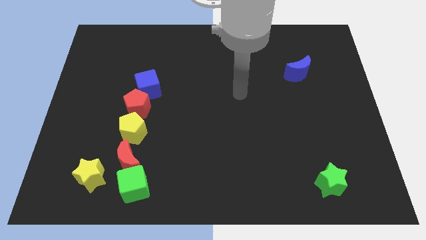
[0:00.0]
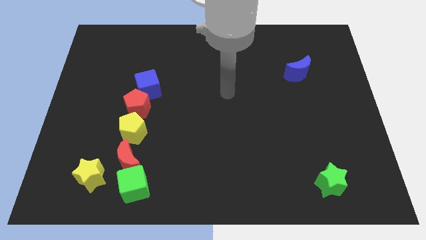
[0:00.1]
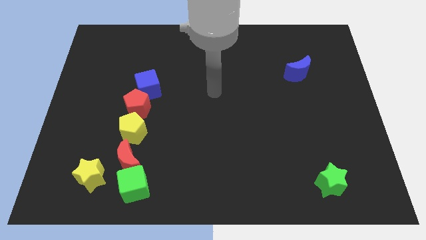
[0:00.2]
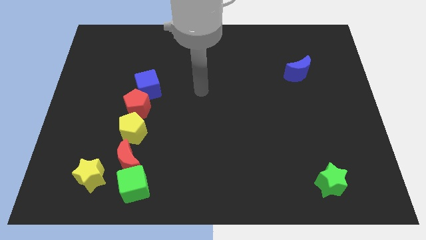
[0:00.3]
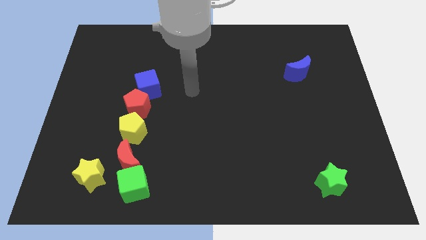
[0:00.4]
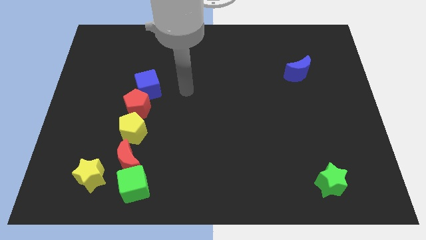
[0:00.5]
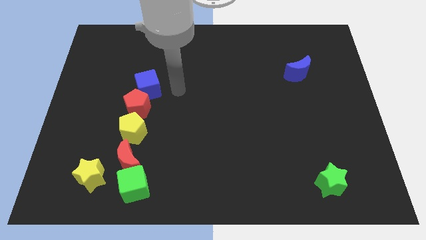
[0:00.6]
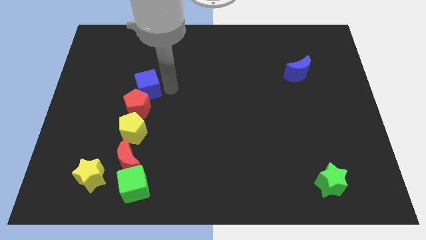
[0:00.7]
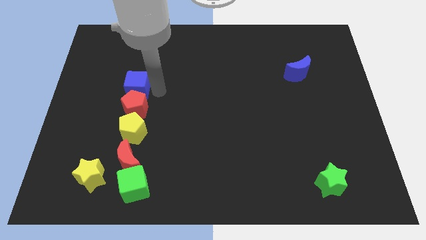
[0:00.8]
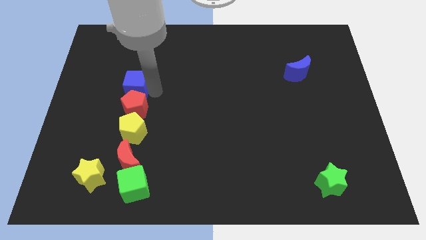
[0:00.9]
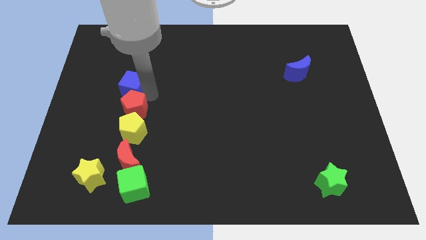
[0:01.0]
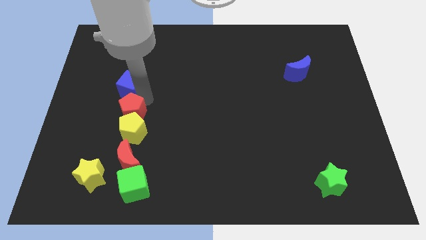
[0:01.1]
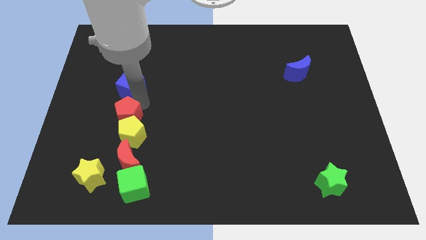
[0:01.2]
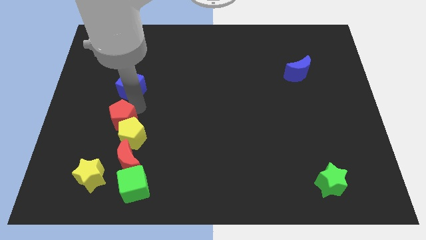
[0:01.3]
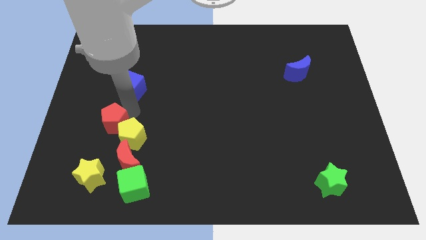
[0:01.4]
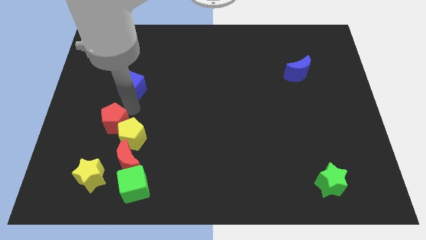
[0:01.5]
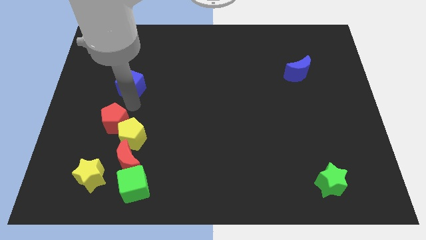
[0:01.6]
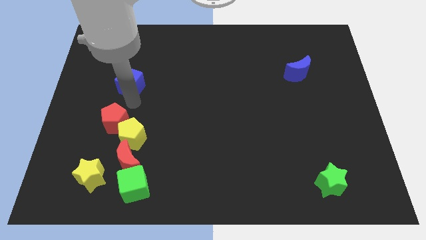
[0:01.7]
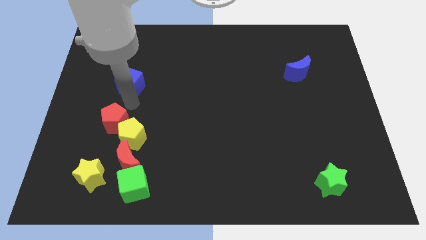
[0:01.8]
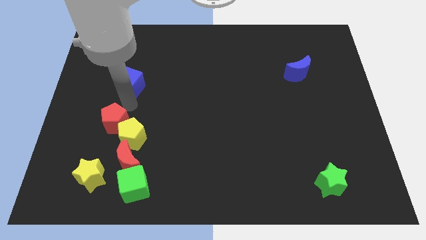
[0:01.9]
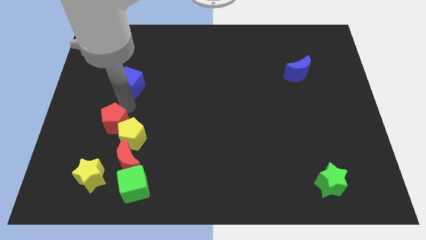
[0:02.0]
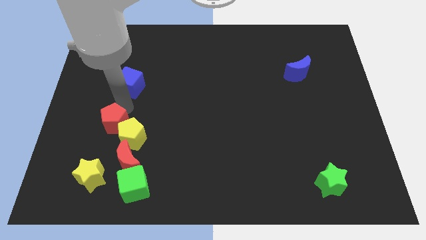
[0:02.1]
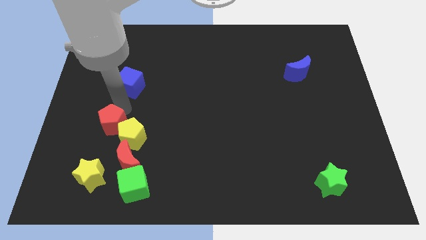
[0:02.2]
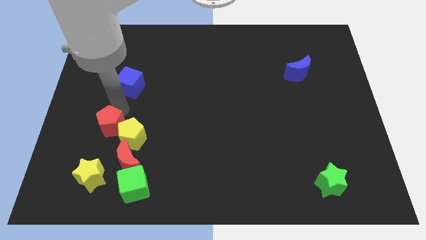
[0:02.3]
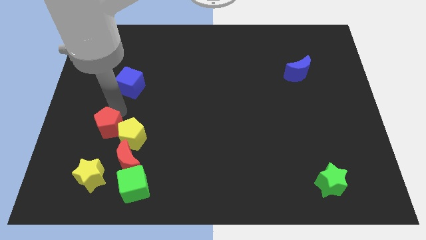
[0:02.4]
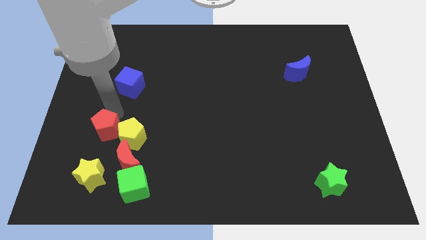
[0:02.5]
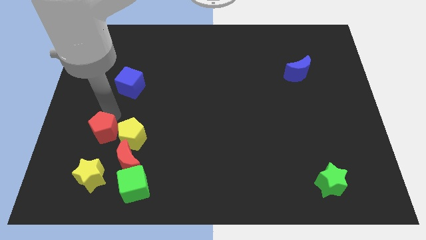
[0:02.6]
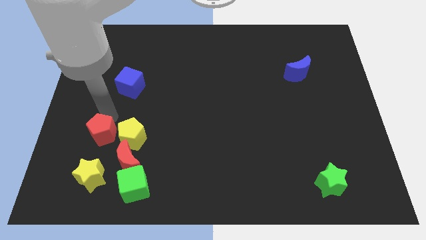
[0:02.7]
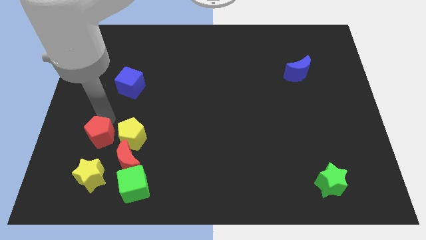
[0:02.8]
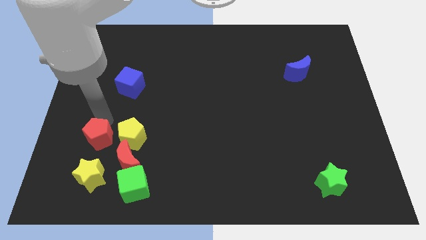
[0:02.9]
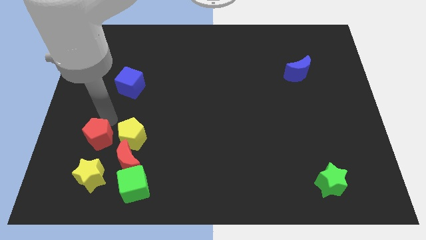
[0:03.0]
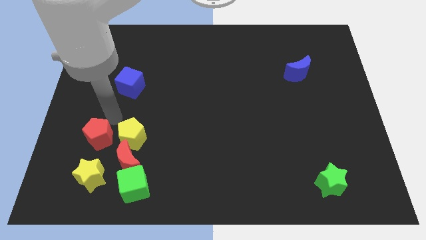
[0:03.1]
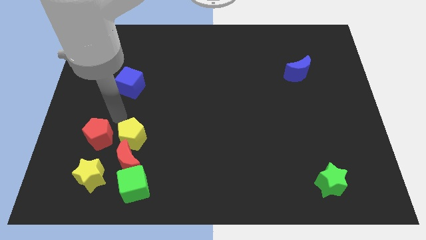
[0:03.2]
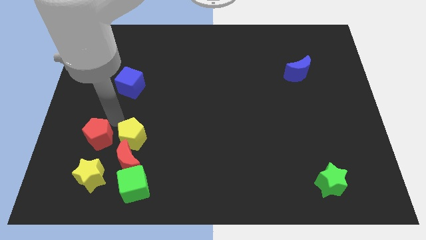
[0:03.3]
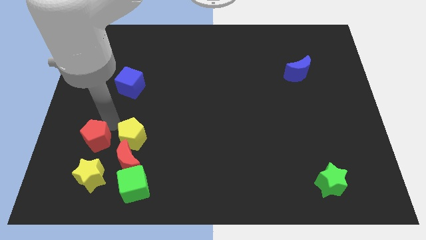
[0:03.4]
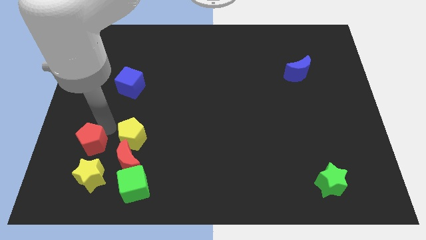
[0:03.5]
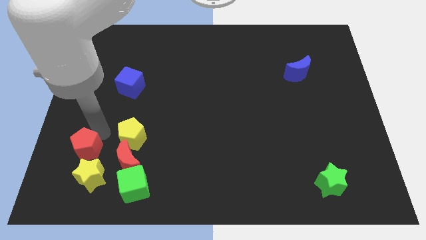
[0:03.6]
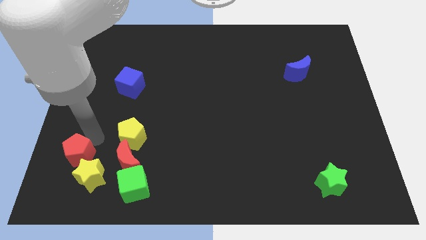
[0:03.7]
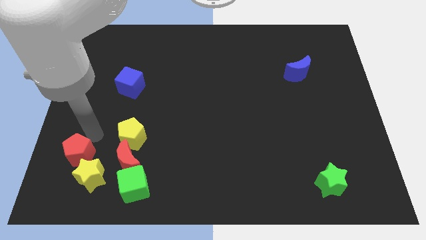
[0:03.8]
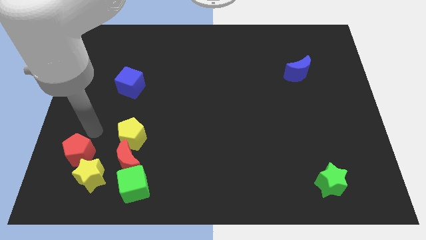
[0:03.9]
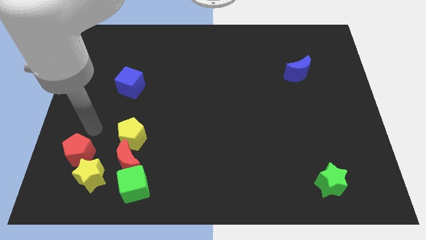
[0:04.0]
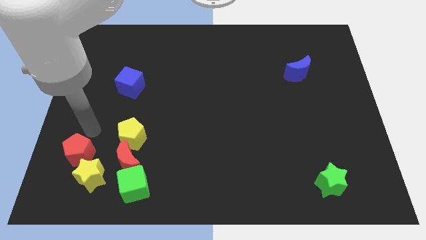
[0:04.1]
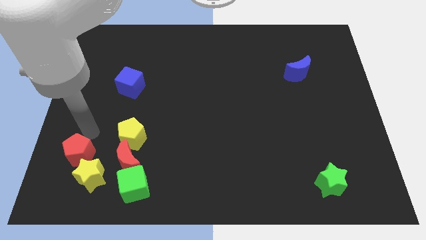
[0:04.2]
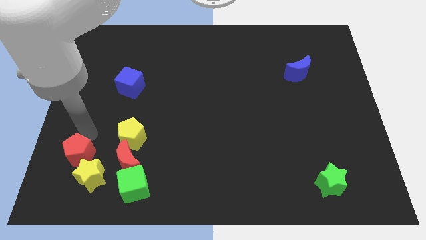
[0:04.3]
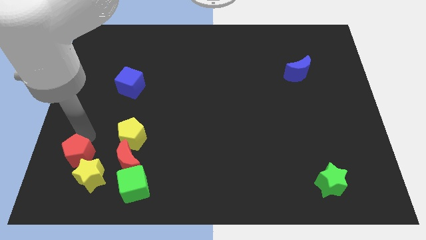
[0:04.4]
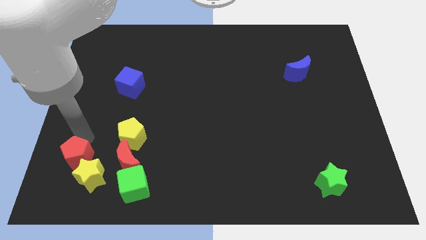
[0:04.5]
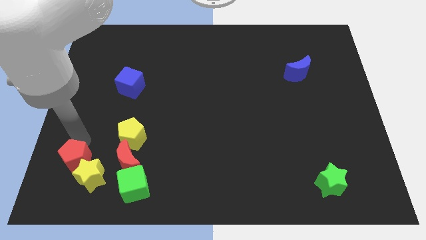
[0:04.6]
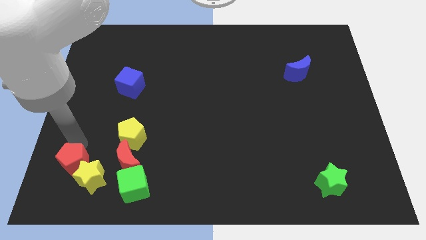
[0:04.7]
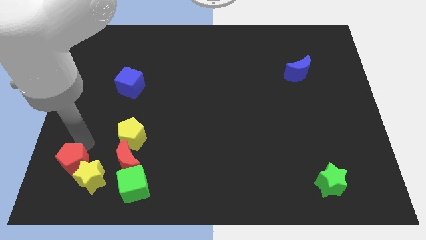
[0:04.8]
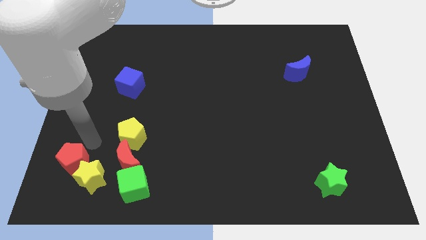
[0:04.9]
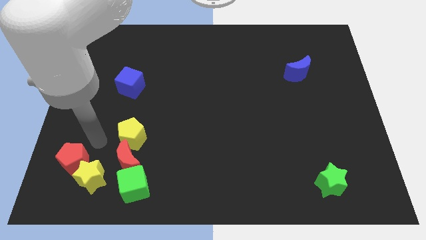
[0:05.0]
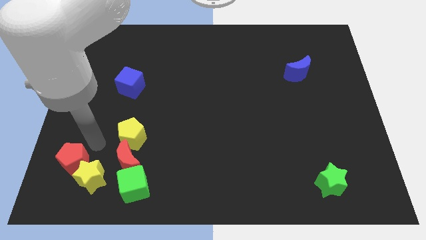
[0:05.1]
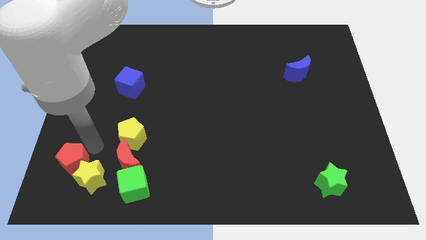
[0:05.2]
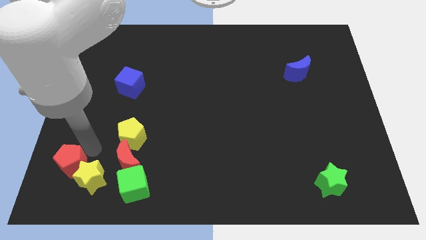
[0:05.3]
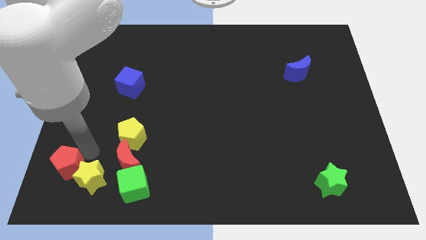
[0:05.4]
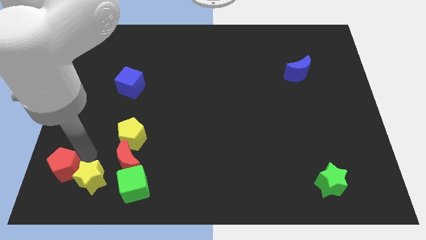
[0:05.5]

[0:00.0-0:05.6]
slide the red pentagon to the lower left corner

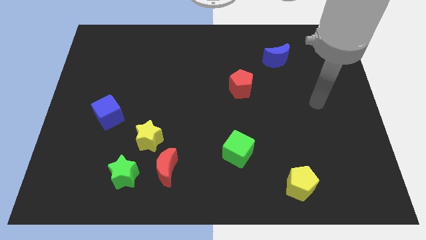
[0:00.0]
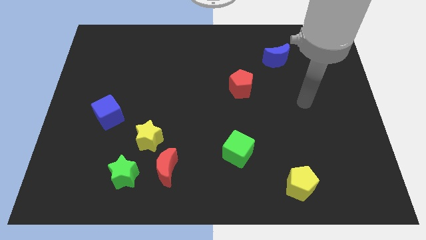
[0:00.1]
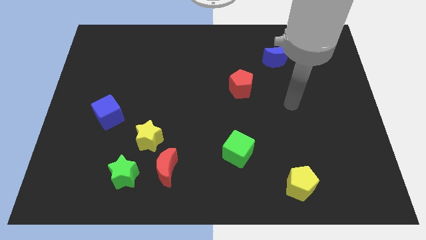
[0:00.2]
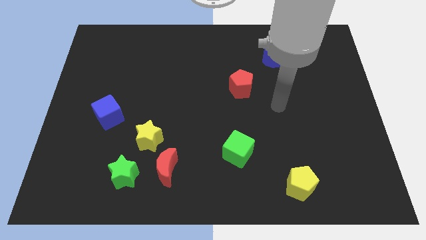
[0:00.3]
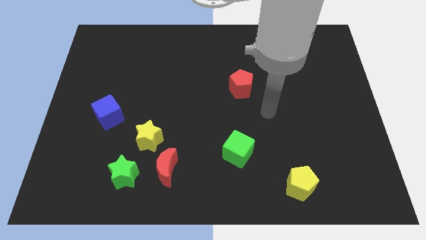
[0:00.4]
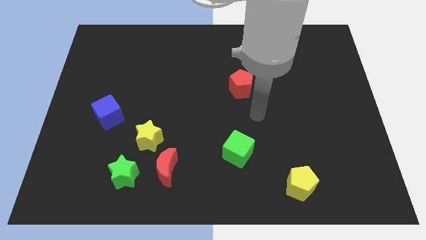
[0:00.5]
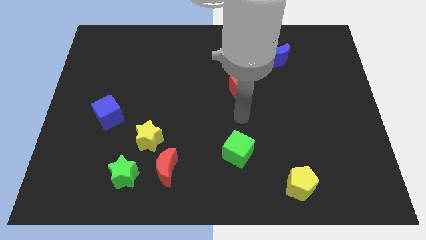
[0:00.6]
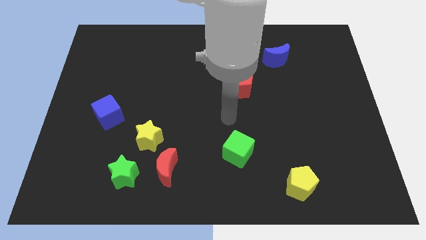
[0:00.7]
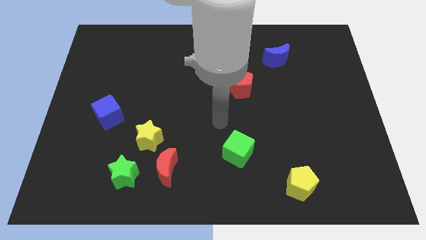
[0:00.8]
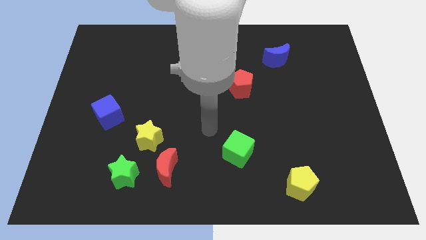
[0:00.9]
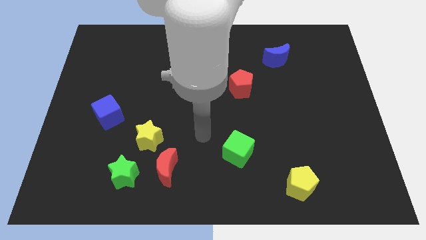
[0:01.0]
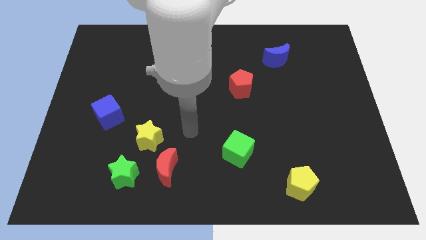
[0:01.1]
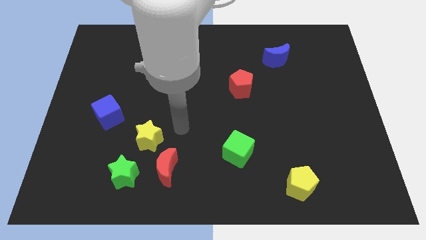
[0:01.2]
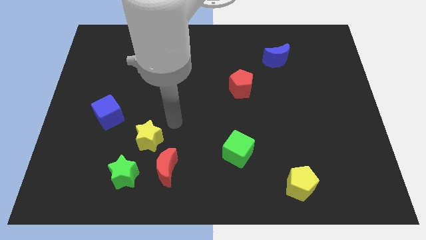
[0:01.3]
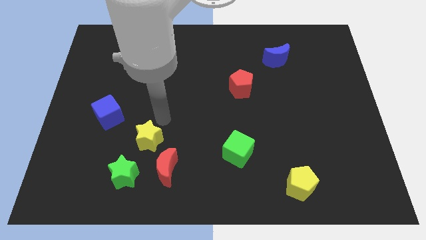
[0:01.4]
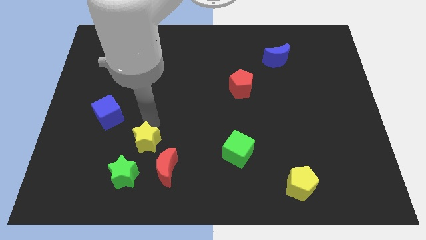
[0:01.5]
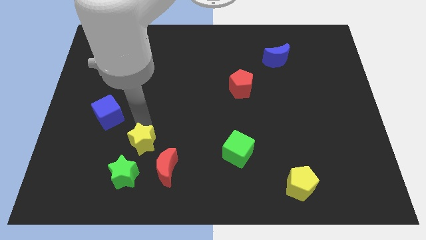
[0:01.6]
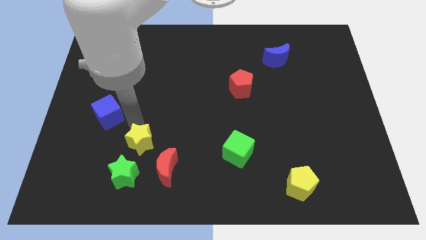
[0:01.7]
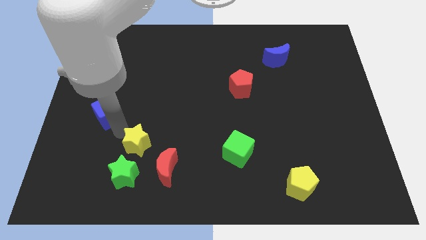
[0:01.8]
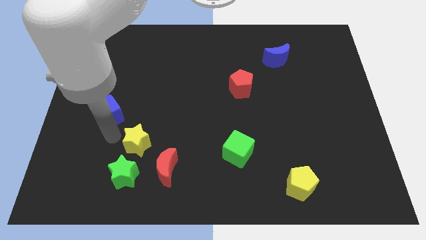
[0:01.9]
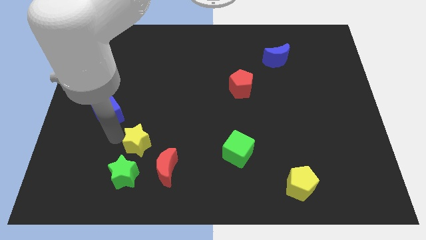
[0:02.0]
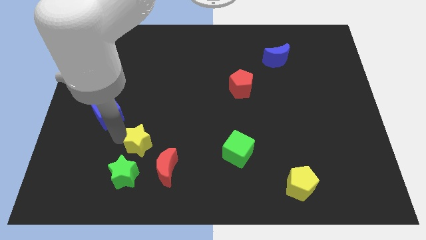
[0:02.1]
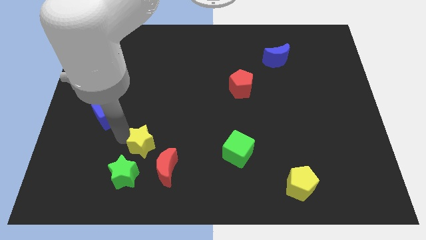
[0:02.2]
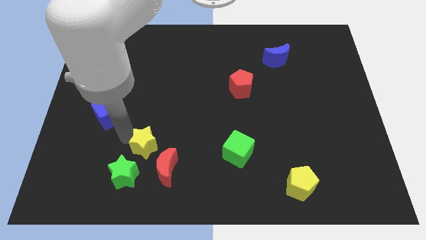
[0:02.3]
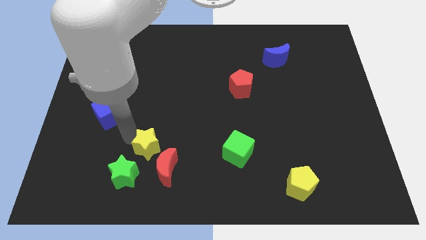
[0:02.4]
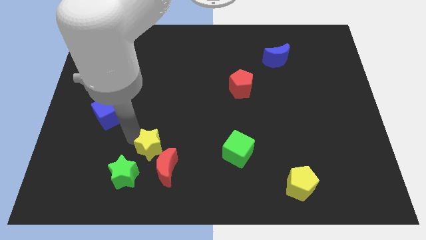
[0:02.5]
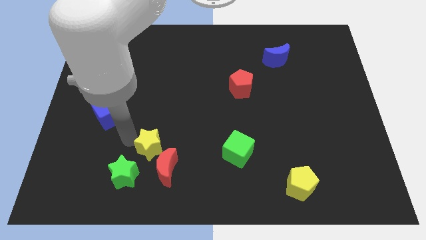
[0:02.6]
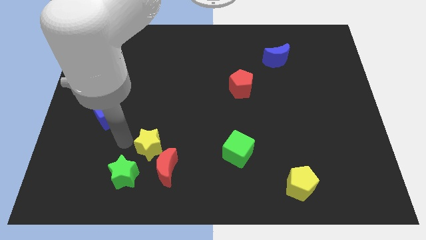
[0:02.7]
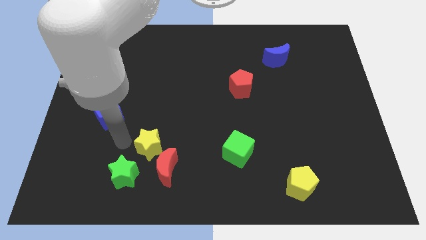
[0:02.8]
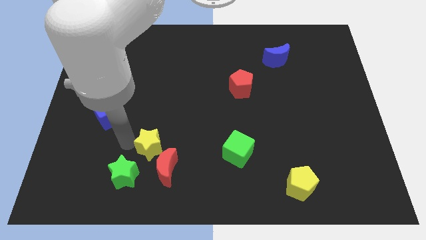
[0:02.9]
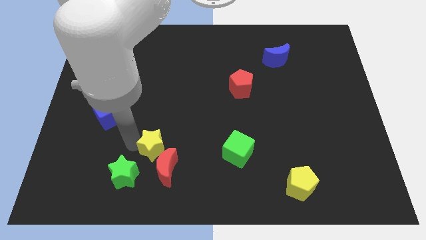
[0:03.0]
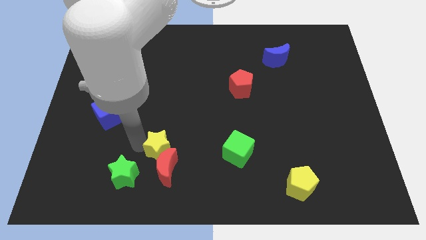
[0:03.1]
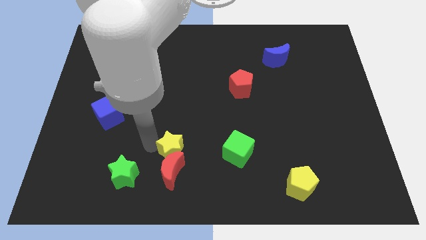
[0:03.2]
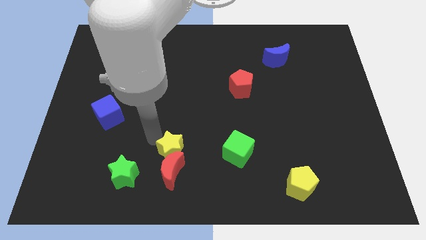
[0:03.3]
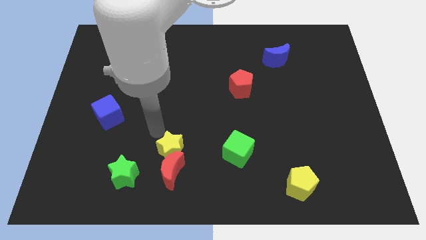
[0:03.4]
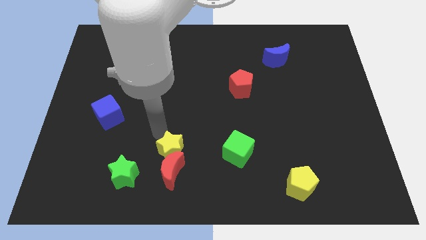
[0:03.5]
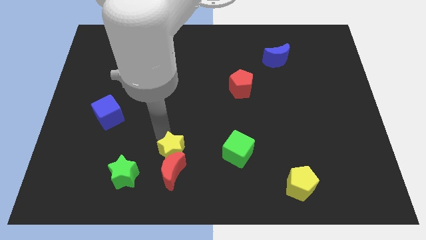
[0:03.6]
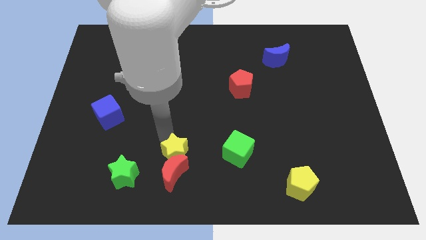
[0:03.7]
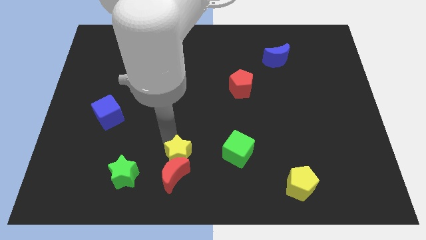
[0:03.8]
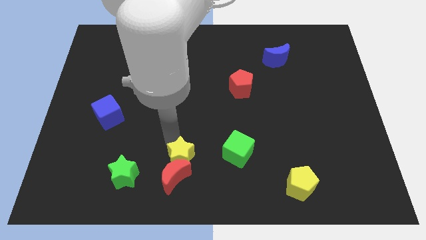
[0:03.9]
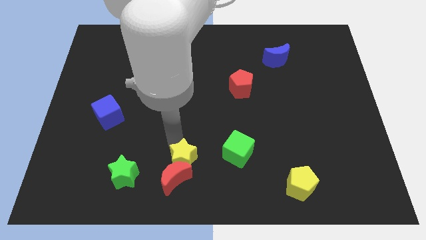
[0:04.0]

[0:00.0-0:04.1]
slide the yellow star to the bottom
